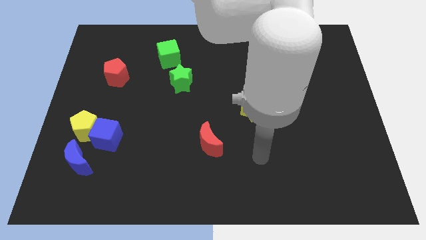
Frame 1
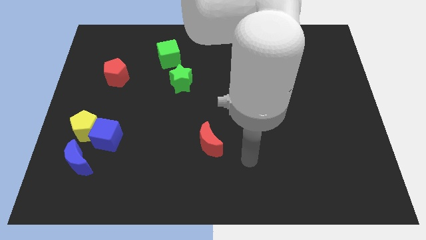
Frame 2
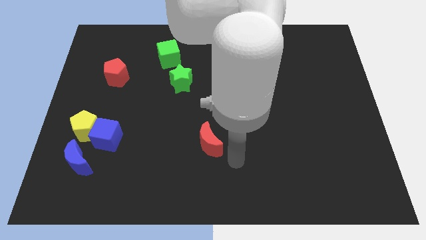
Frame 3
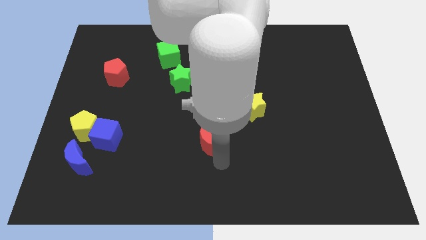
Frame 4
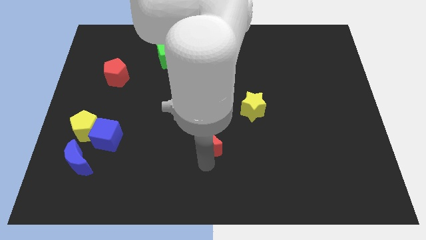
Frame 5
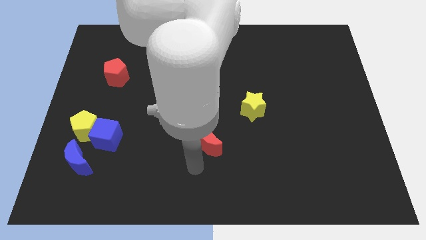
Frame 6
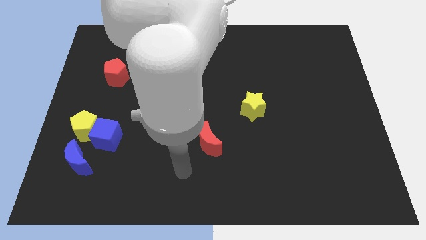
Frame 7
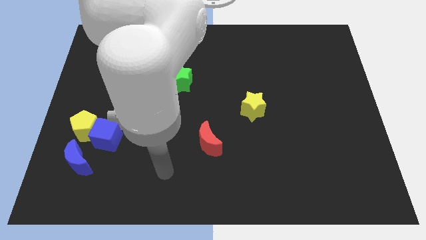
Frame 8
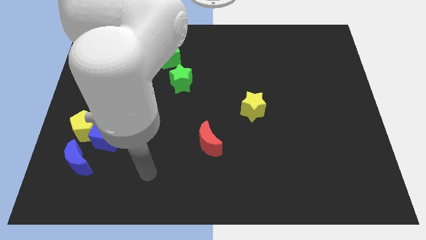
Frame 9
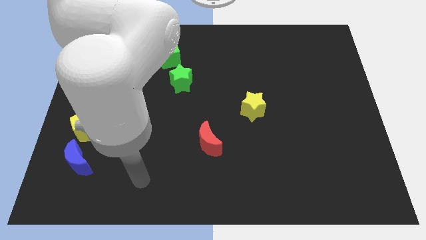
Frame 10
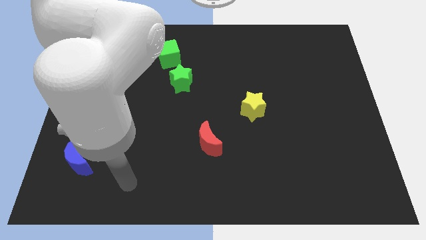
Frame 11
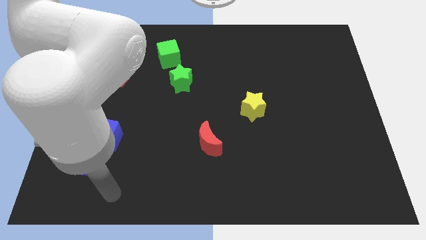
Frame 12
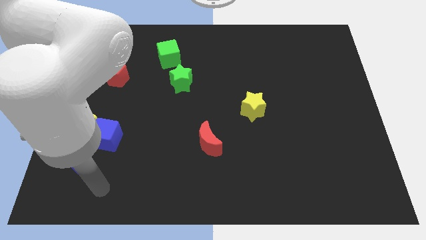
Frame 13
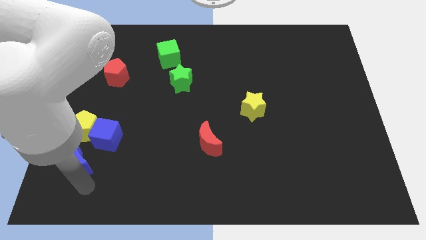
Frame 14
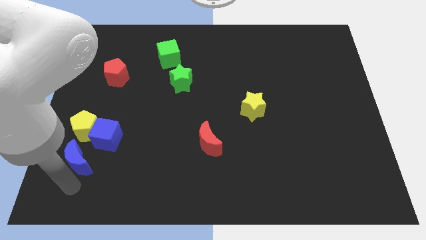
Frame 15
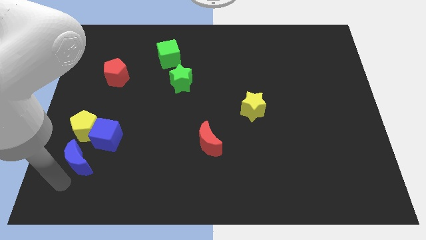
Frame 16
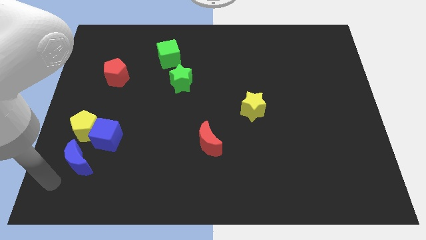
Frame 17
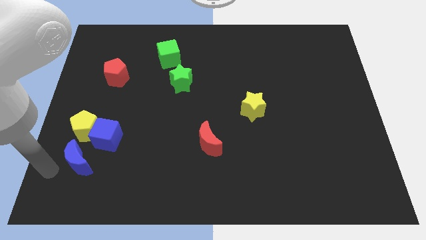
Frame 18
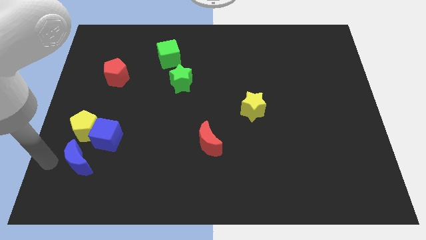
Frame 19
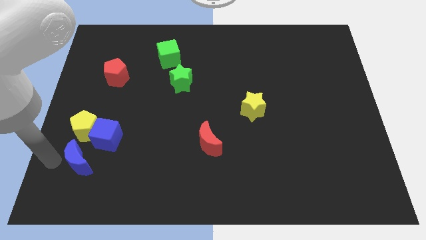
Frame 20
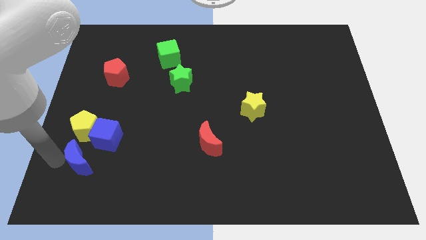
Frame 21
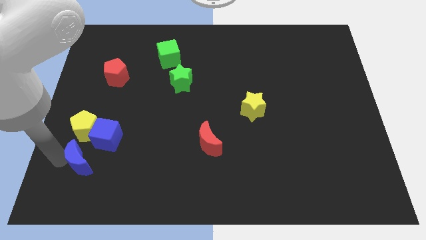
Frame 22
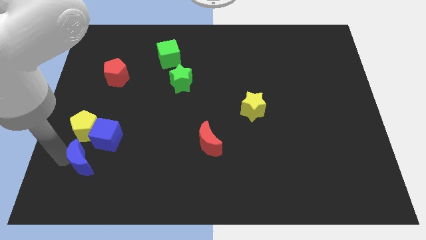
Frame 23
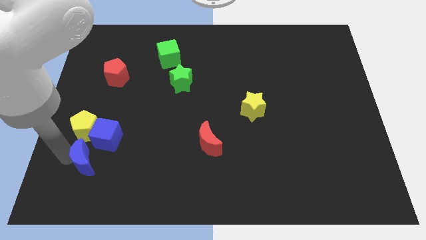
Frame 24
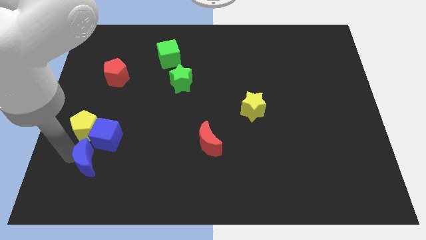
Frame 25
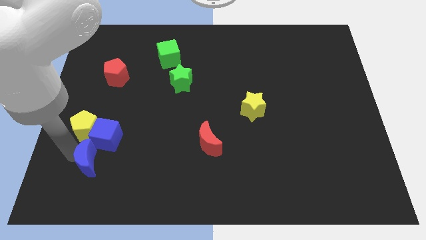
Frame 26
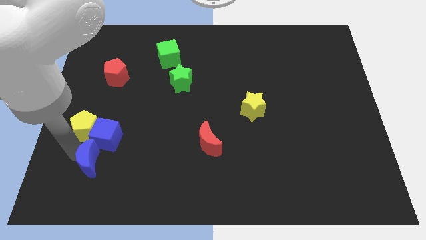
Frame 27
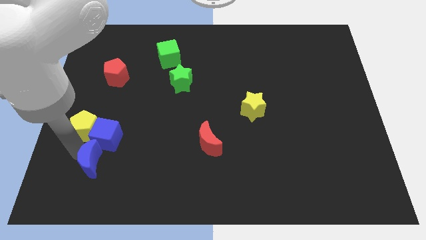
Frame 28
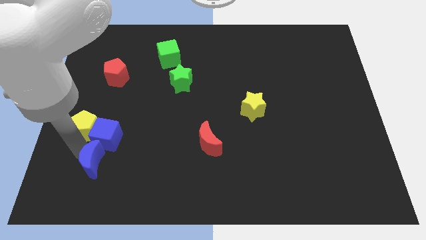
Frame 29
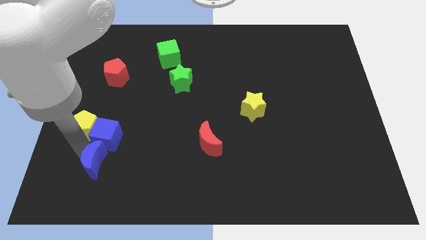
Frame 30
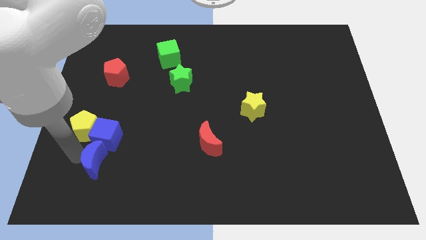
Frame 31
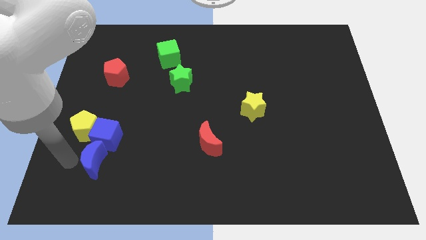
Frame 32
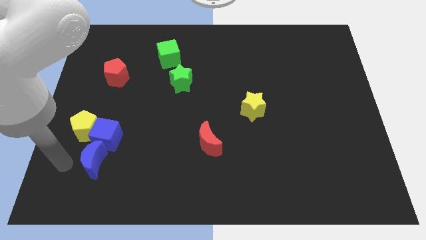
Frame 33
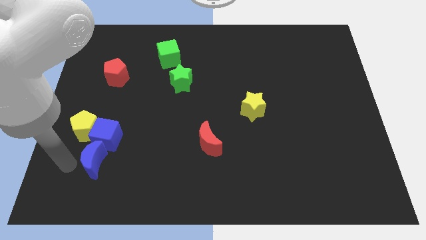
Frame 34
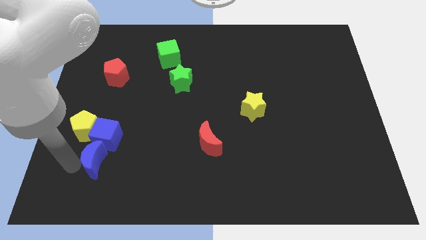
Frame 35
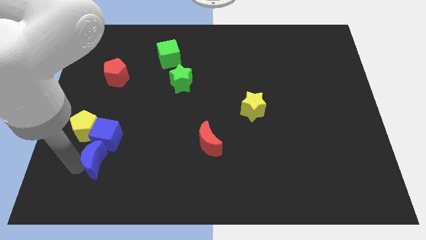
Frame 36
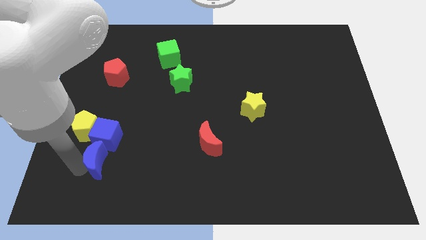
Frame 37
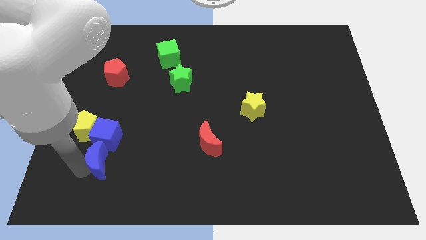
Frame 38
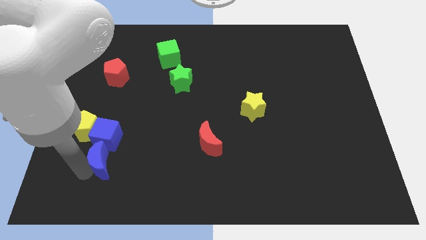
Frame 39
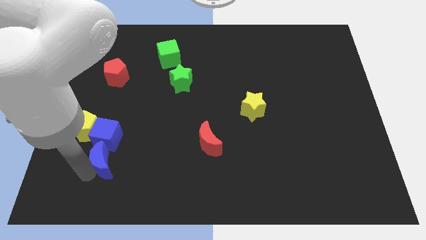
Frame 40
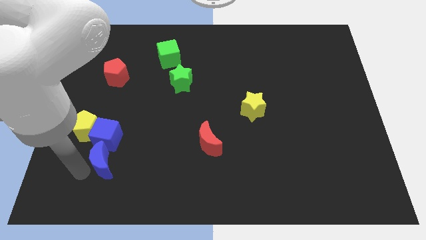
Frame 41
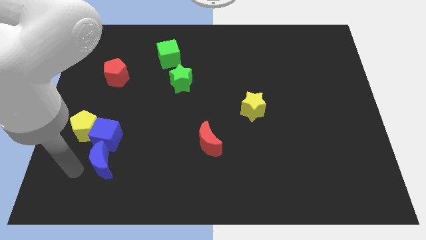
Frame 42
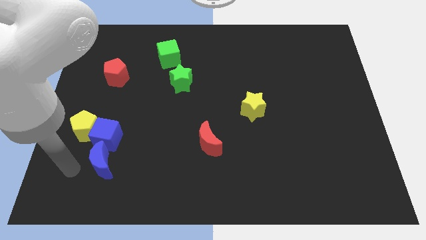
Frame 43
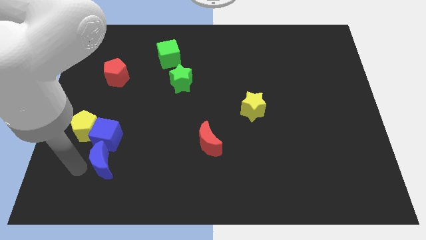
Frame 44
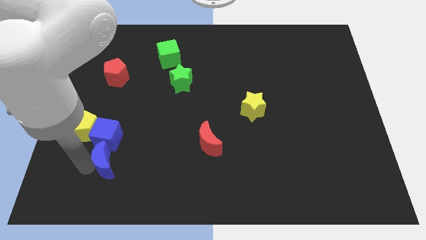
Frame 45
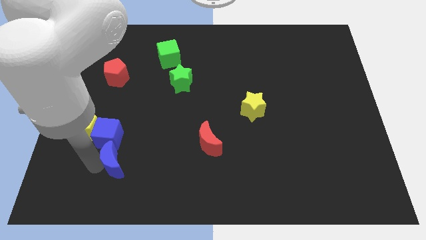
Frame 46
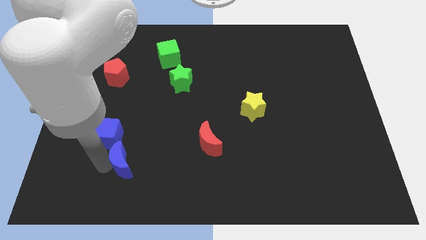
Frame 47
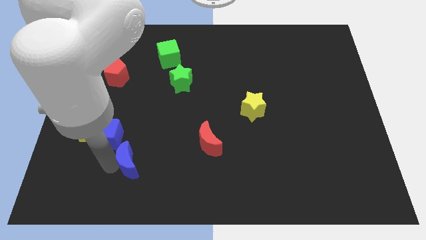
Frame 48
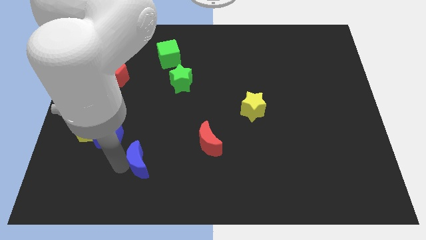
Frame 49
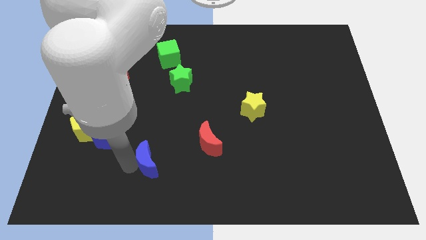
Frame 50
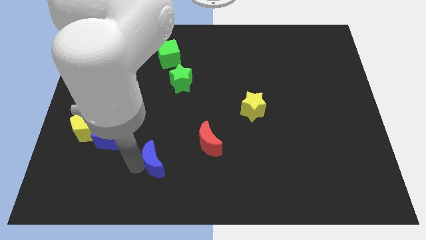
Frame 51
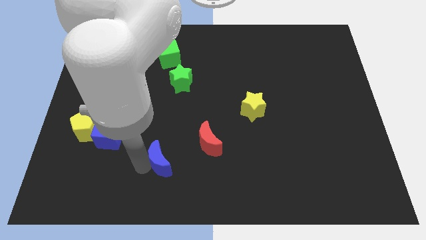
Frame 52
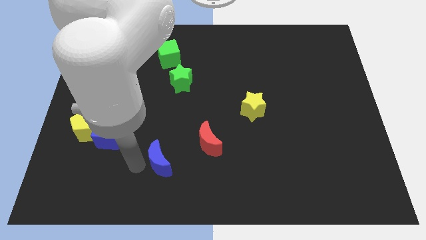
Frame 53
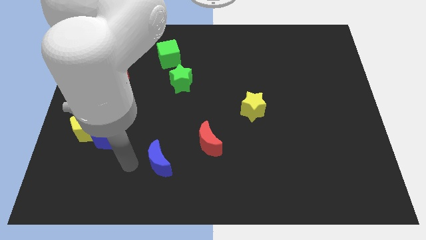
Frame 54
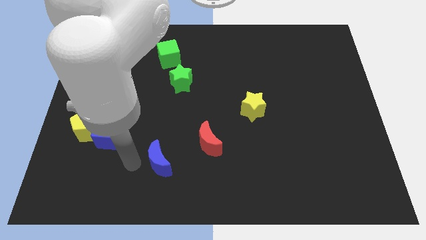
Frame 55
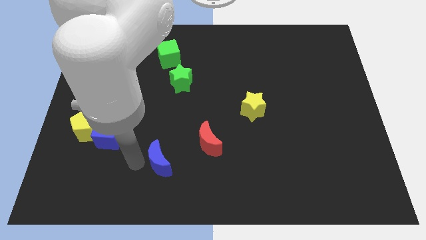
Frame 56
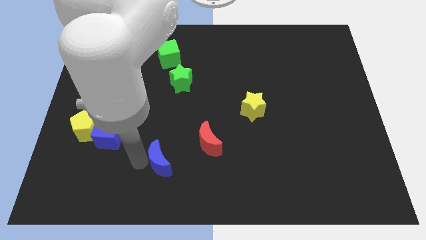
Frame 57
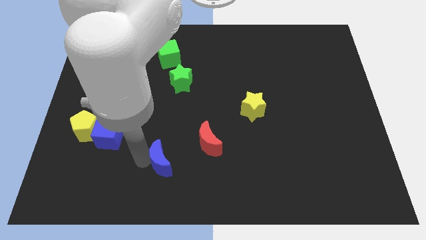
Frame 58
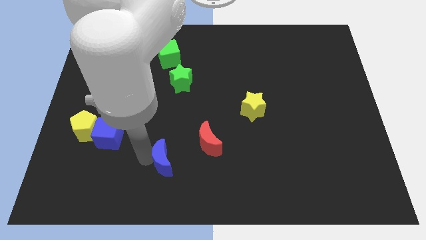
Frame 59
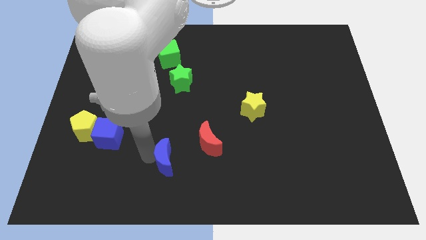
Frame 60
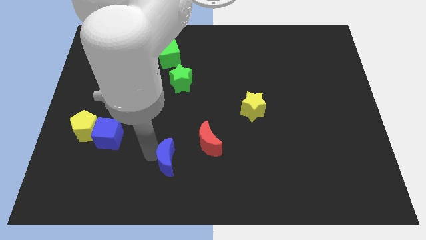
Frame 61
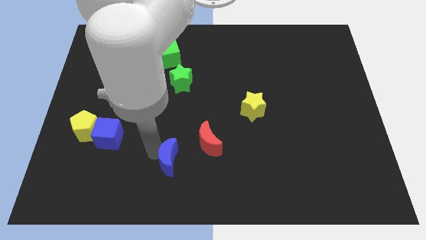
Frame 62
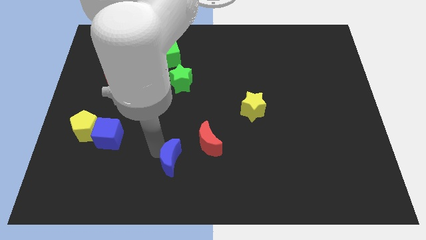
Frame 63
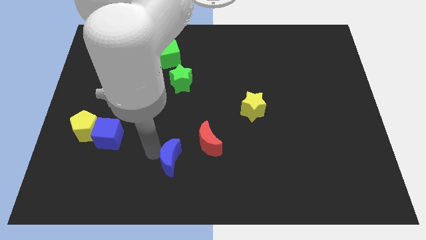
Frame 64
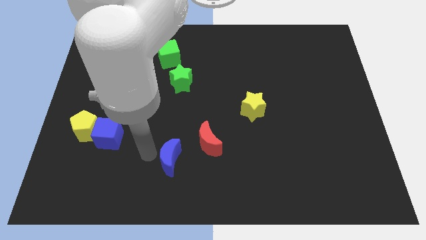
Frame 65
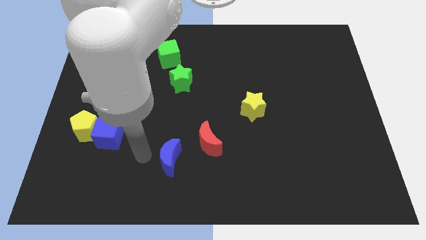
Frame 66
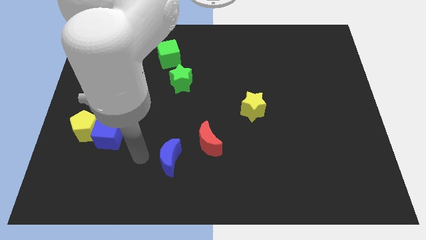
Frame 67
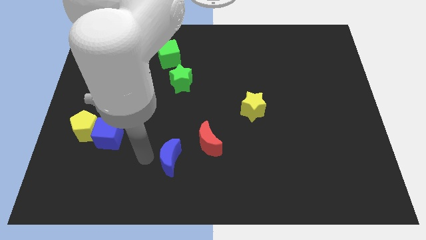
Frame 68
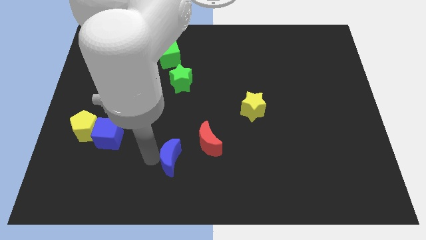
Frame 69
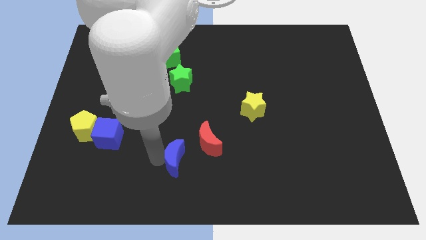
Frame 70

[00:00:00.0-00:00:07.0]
slide the blue moon to the right

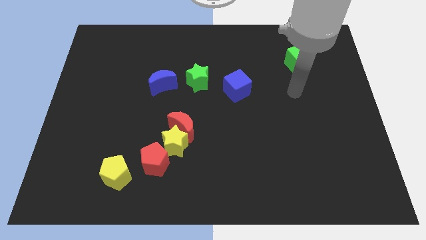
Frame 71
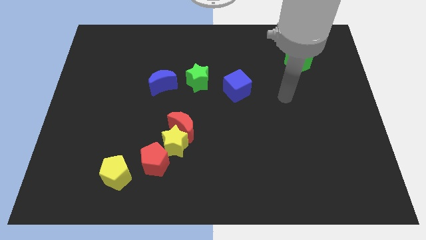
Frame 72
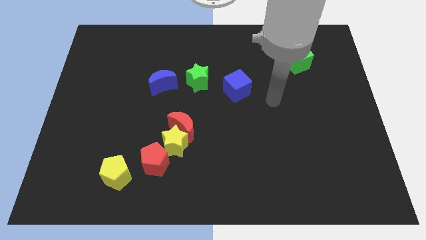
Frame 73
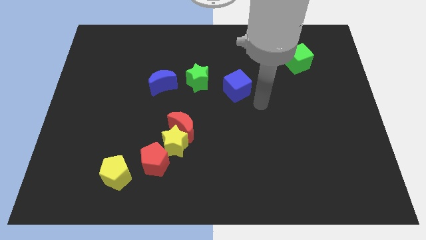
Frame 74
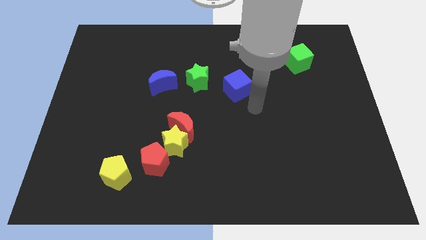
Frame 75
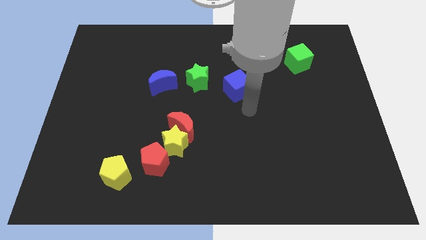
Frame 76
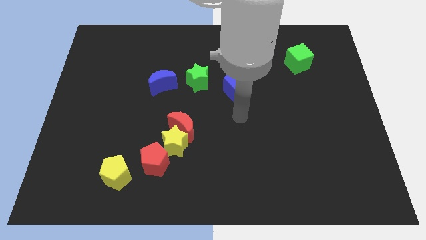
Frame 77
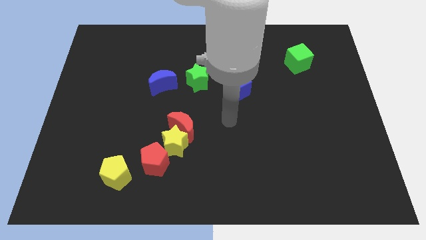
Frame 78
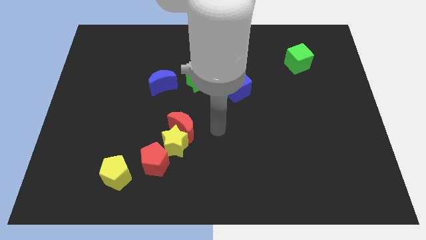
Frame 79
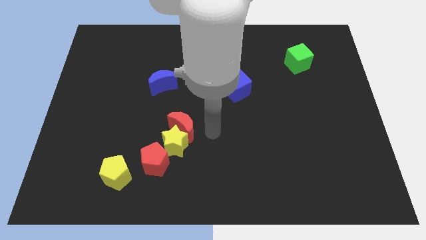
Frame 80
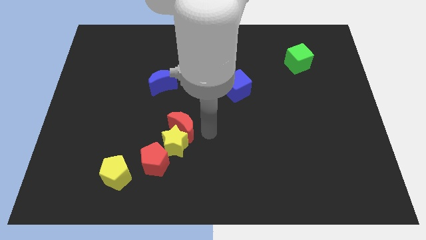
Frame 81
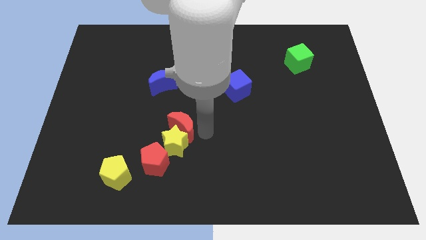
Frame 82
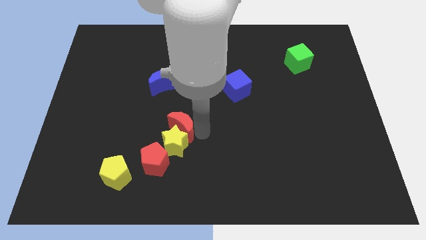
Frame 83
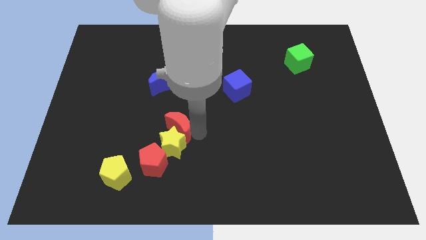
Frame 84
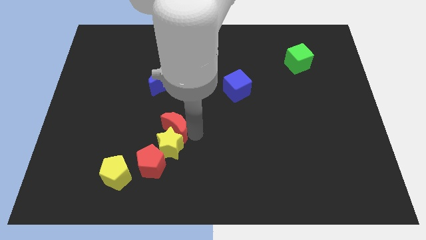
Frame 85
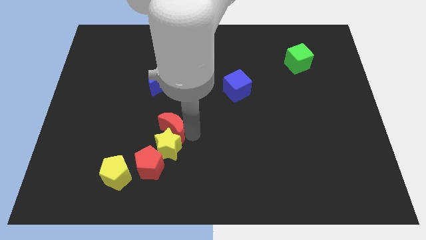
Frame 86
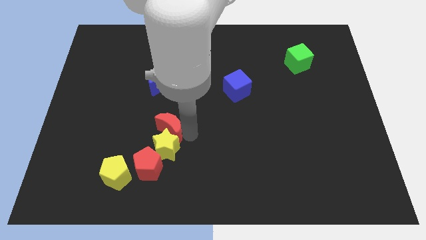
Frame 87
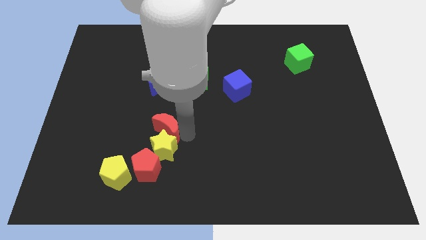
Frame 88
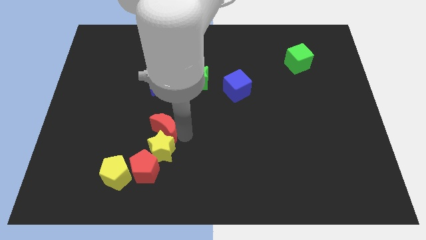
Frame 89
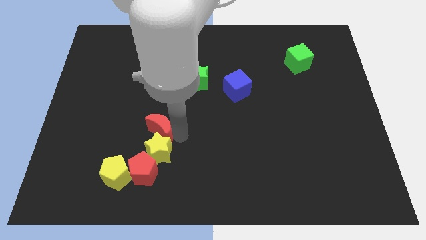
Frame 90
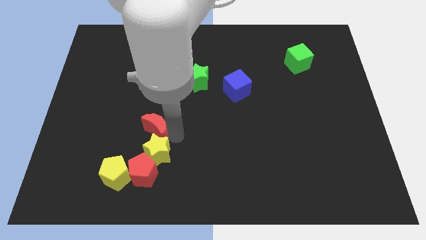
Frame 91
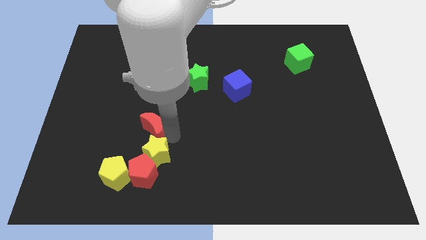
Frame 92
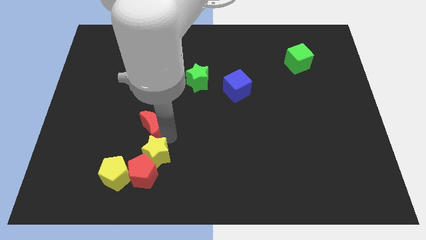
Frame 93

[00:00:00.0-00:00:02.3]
push the red moon to the left slightly
